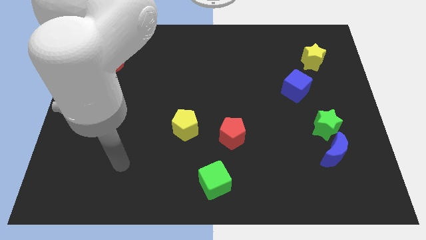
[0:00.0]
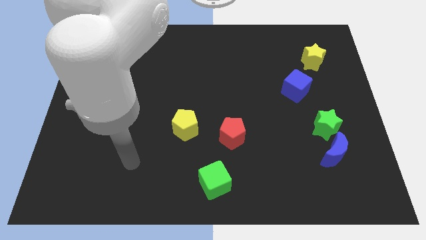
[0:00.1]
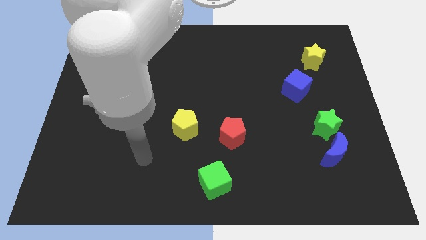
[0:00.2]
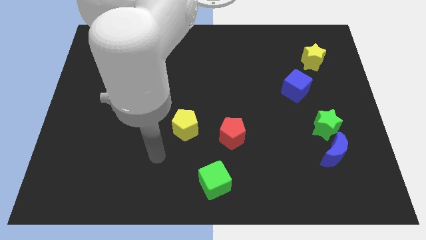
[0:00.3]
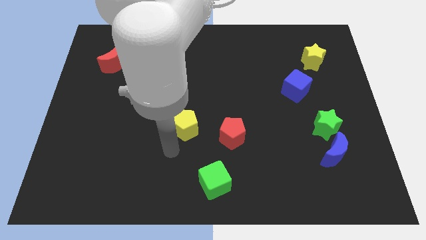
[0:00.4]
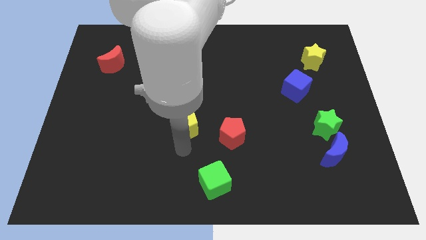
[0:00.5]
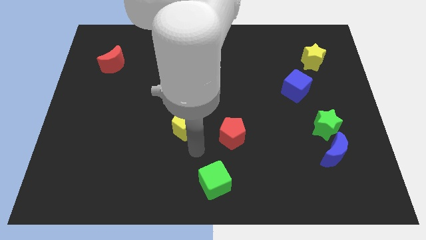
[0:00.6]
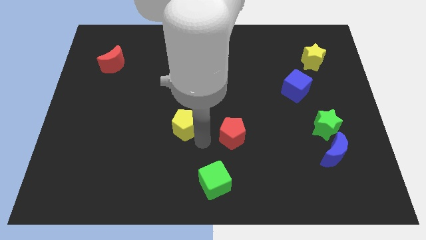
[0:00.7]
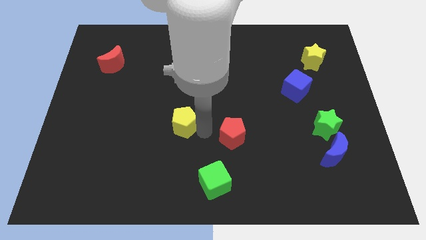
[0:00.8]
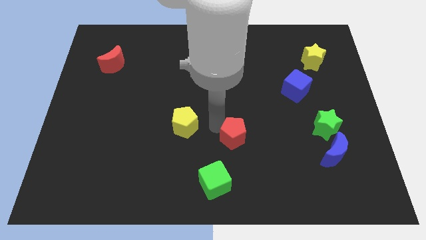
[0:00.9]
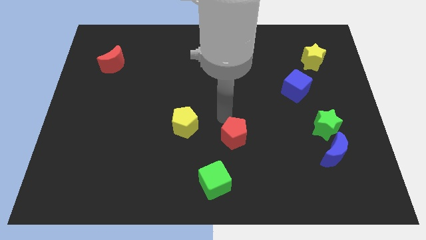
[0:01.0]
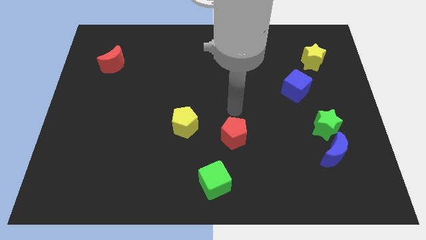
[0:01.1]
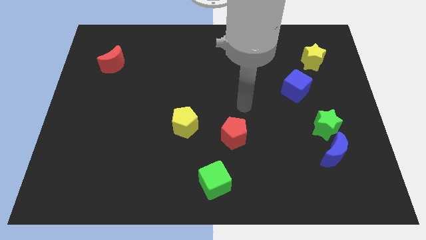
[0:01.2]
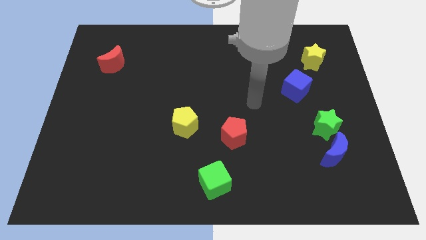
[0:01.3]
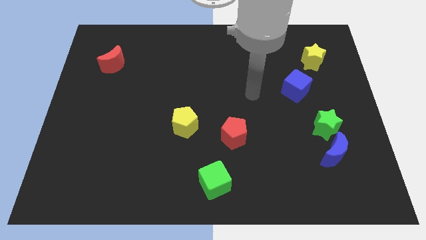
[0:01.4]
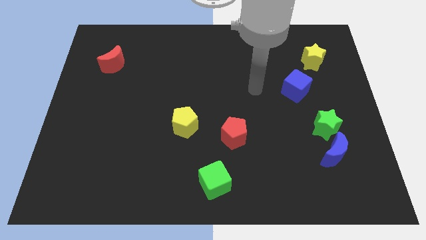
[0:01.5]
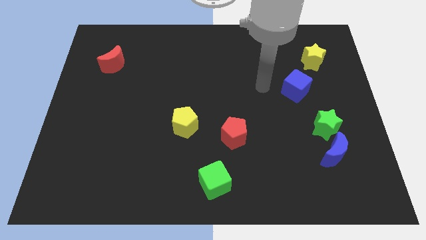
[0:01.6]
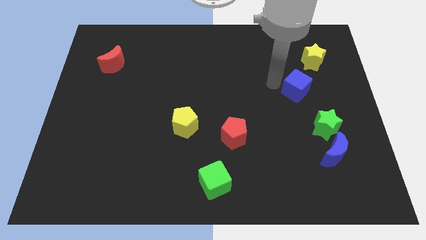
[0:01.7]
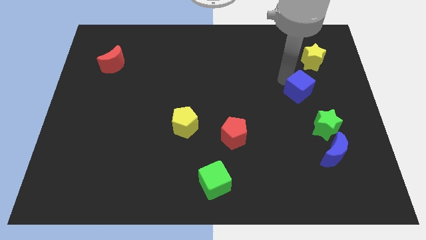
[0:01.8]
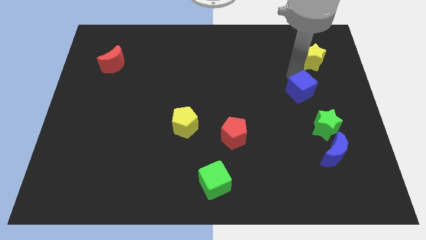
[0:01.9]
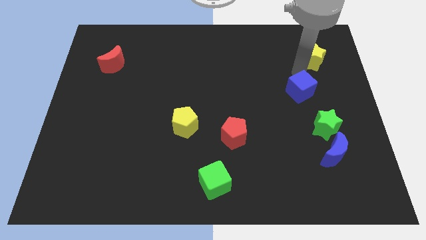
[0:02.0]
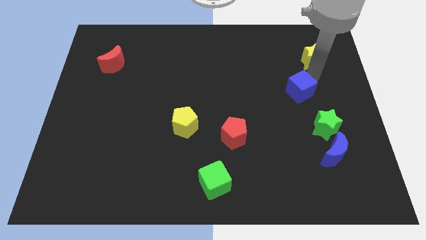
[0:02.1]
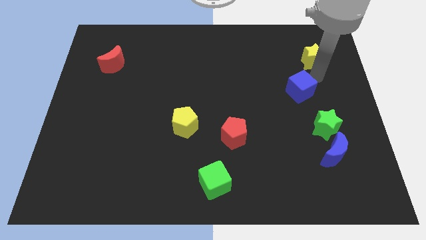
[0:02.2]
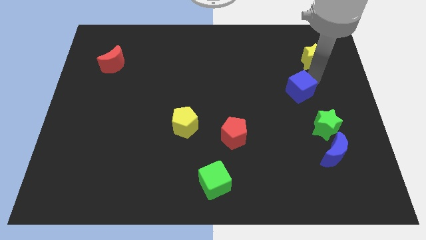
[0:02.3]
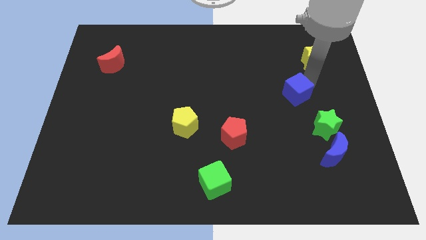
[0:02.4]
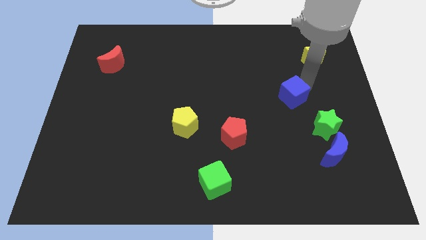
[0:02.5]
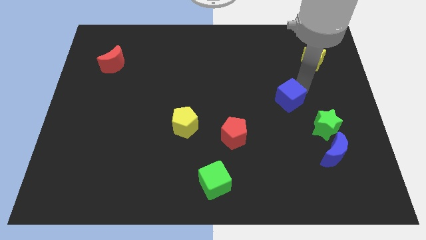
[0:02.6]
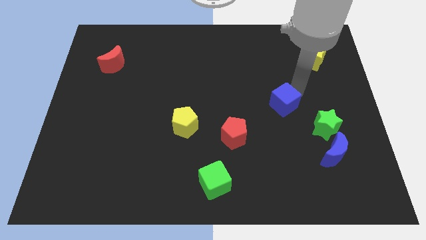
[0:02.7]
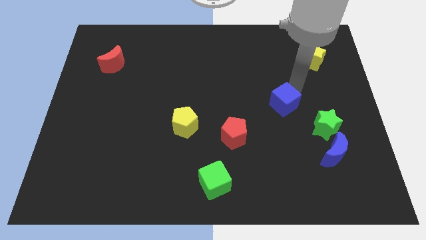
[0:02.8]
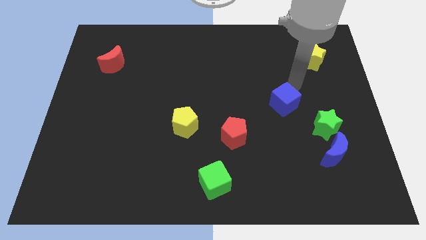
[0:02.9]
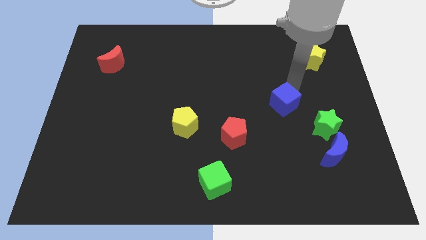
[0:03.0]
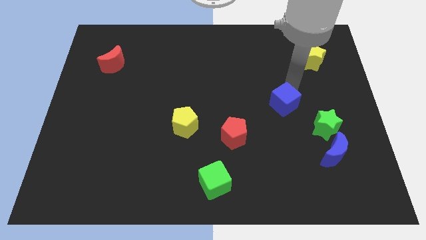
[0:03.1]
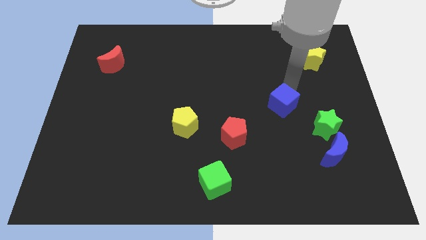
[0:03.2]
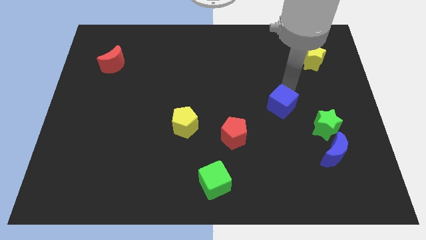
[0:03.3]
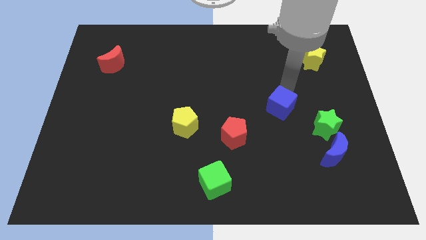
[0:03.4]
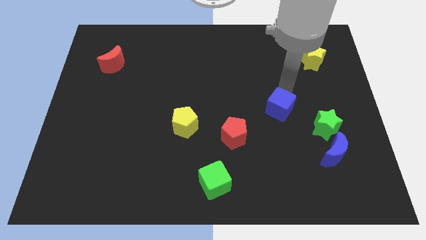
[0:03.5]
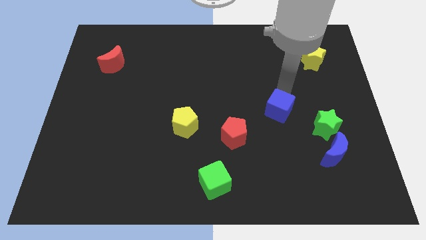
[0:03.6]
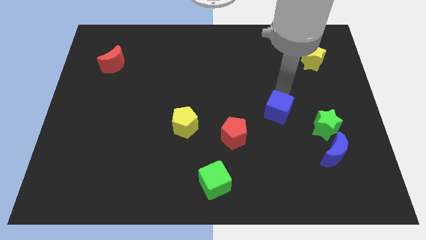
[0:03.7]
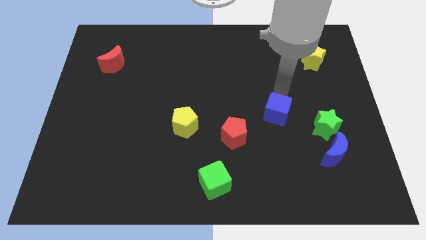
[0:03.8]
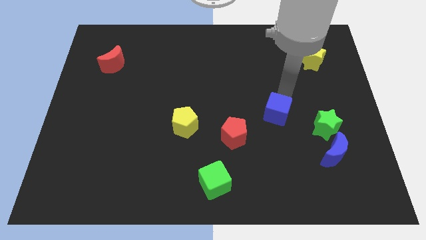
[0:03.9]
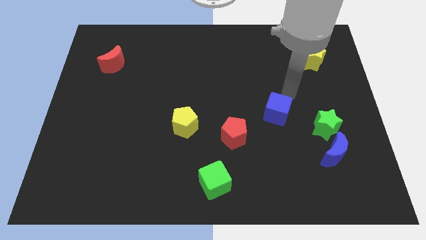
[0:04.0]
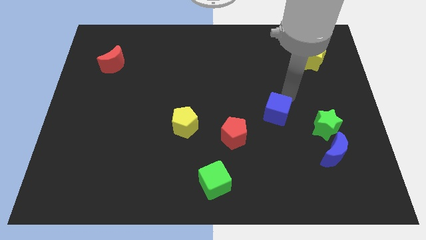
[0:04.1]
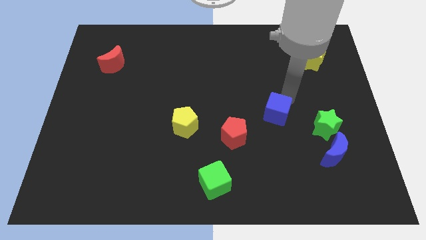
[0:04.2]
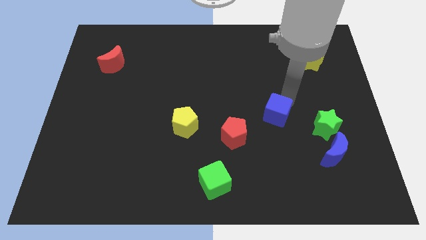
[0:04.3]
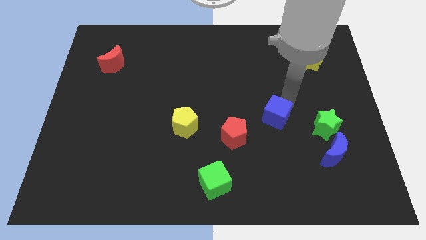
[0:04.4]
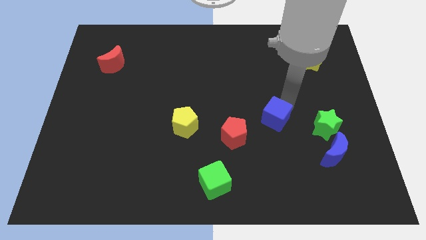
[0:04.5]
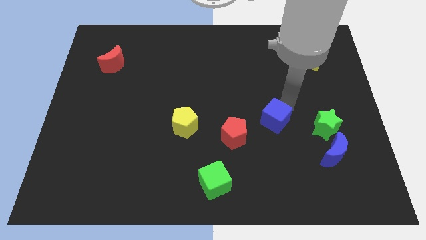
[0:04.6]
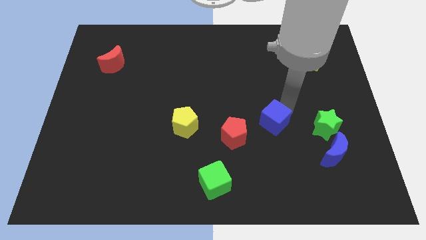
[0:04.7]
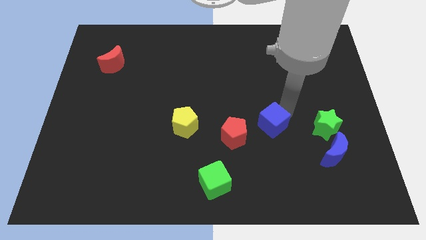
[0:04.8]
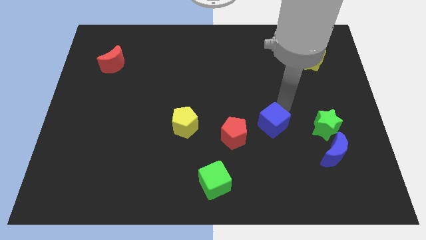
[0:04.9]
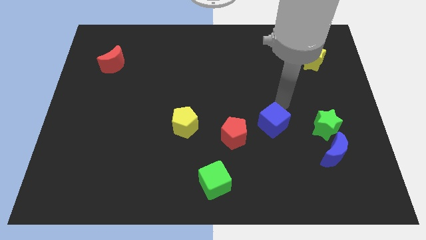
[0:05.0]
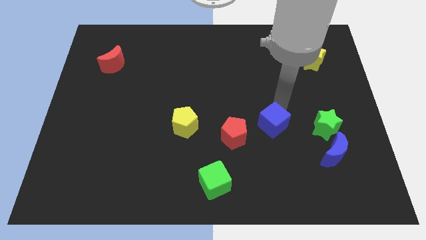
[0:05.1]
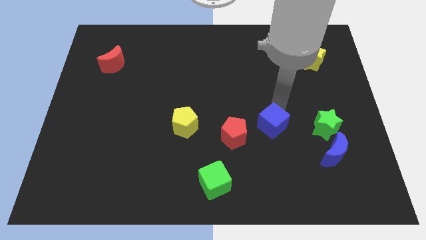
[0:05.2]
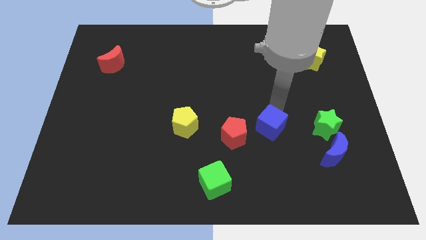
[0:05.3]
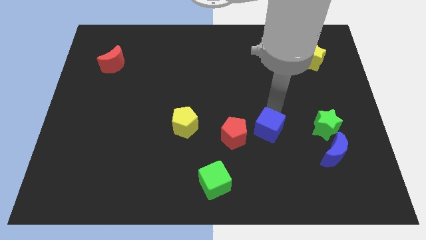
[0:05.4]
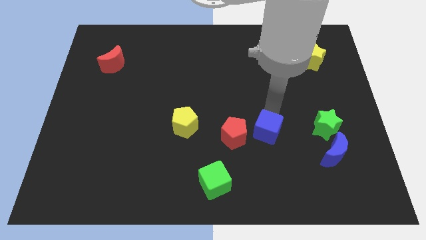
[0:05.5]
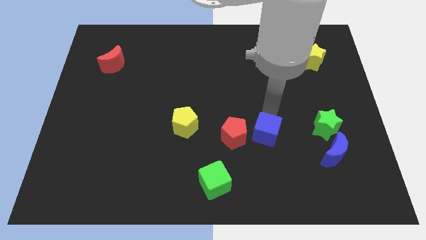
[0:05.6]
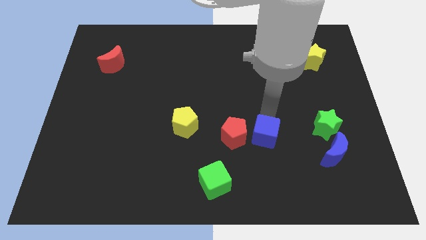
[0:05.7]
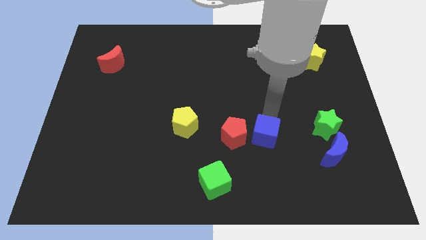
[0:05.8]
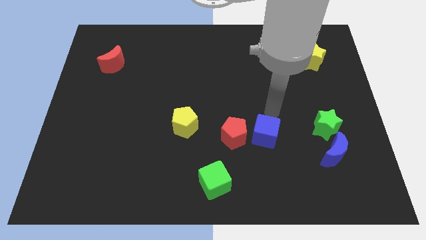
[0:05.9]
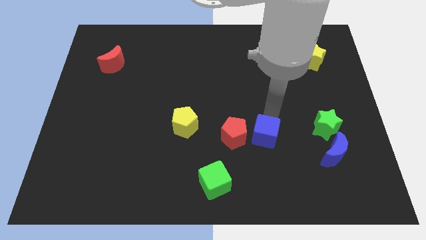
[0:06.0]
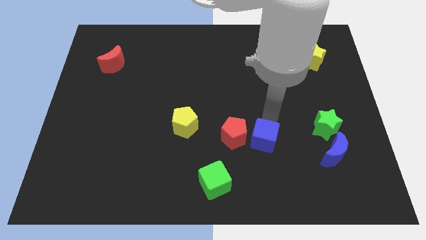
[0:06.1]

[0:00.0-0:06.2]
push the blue cube diagonally down and to the right of the red pentagon
